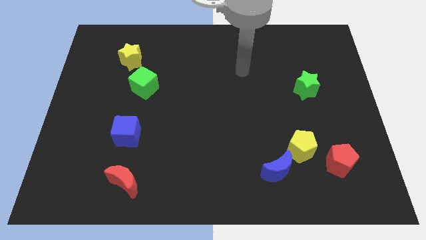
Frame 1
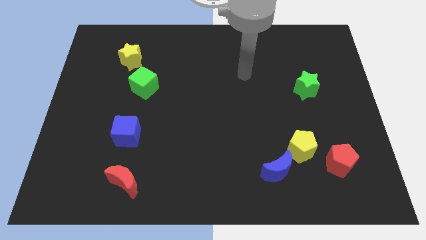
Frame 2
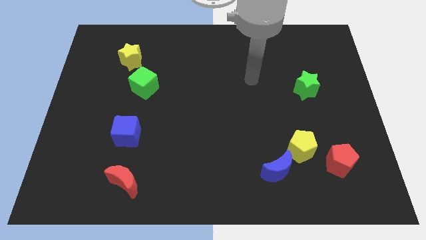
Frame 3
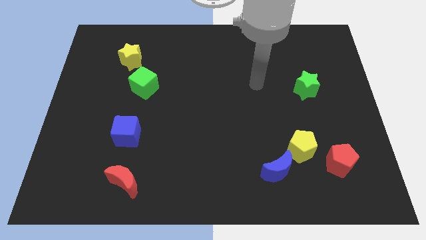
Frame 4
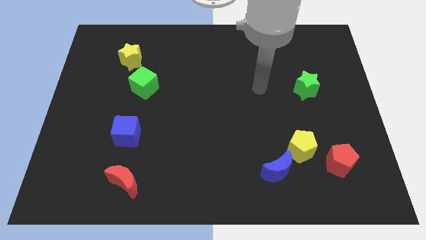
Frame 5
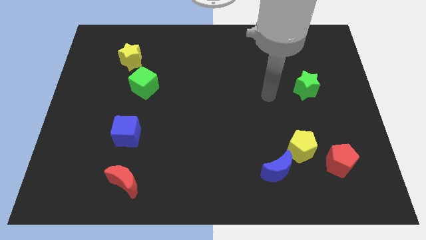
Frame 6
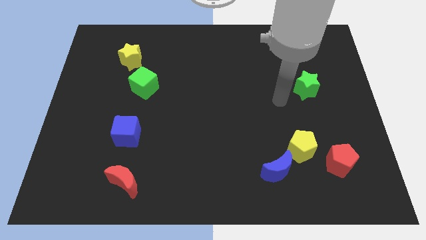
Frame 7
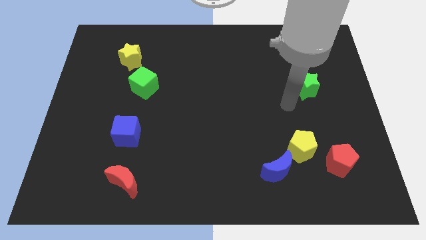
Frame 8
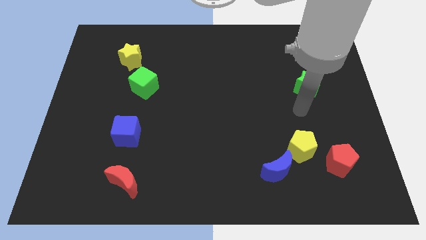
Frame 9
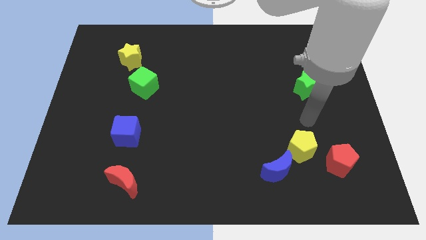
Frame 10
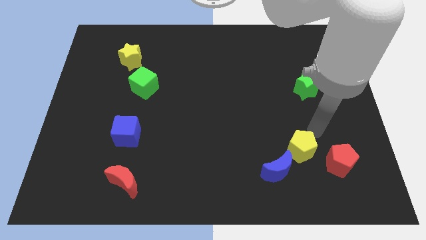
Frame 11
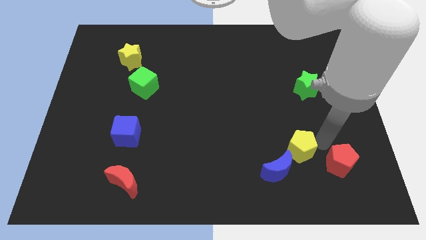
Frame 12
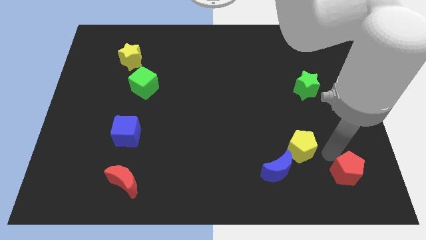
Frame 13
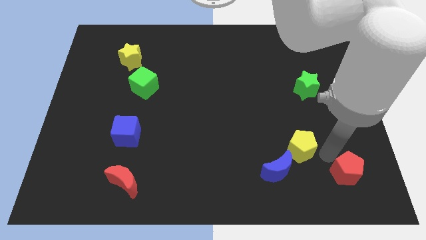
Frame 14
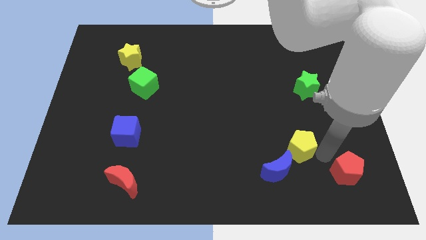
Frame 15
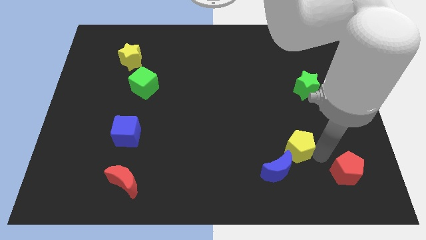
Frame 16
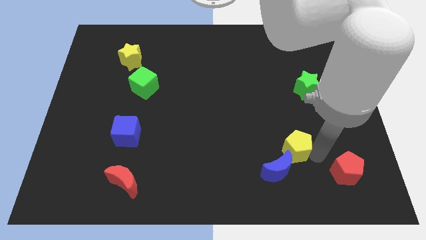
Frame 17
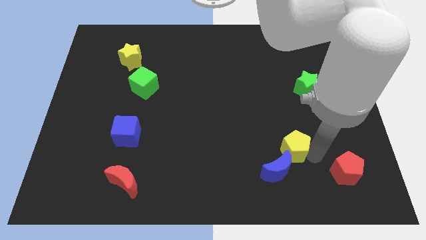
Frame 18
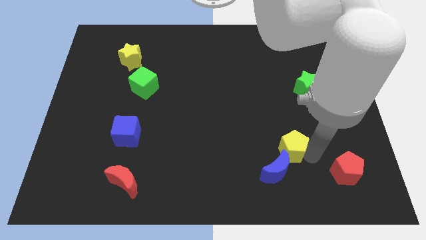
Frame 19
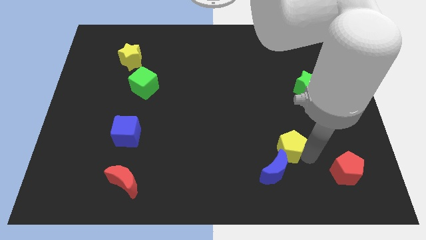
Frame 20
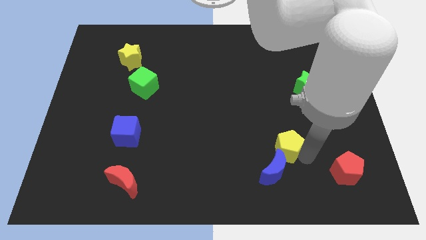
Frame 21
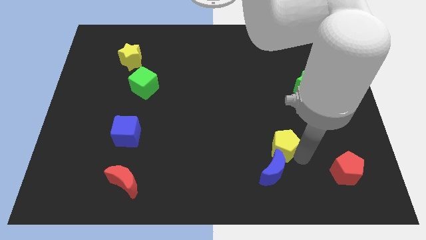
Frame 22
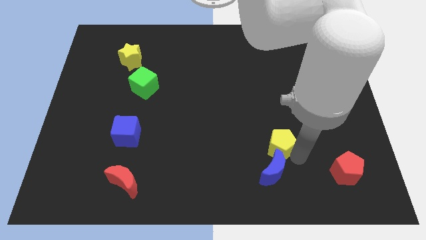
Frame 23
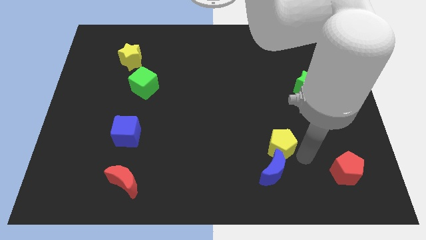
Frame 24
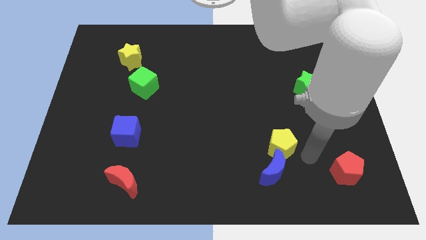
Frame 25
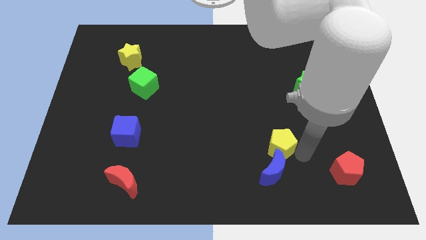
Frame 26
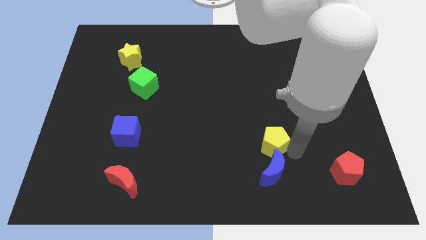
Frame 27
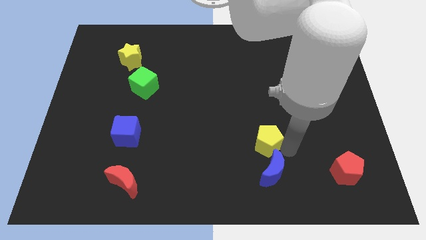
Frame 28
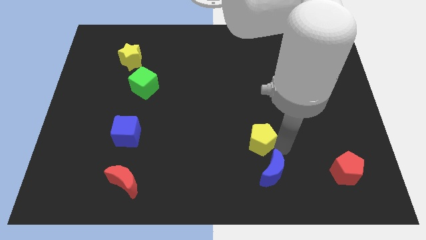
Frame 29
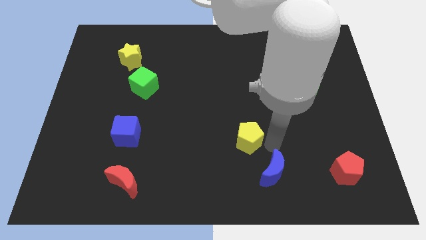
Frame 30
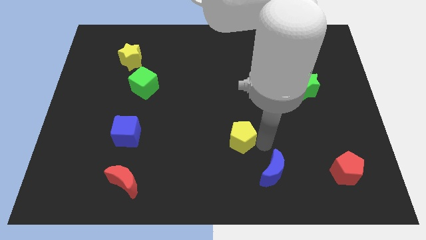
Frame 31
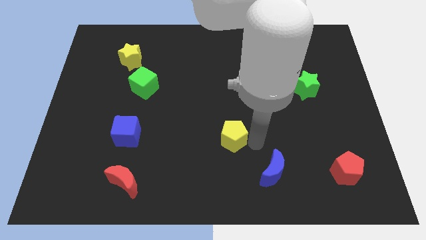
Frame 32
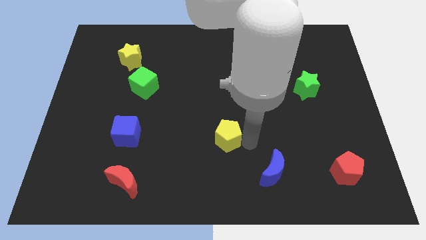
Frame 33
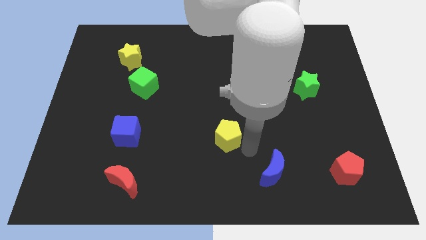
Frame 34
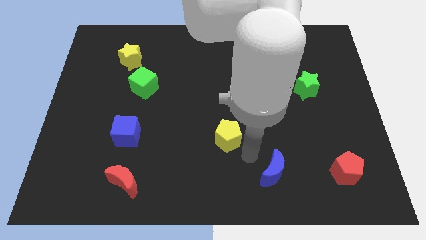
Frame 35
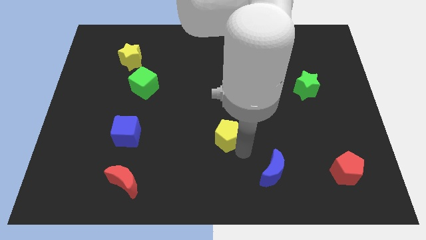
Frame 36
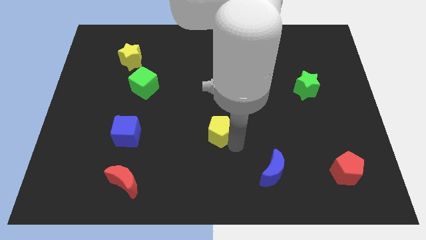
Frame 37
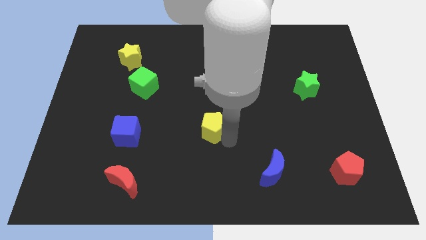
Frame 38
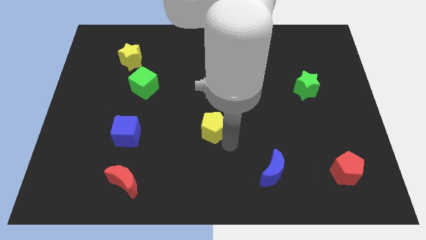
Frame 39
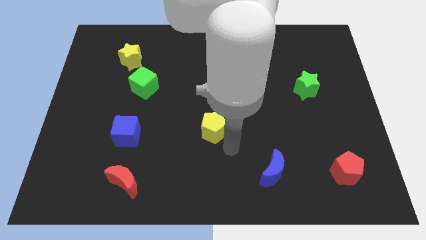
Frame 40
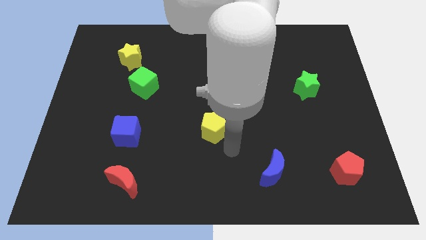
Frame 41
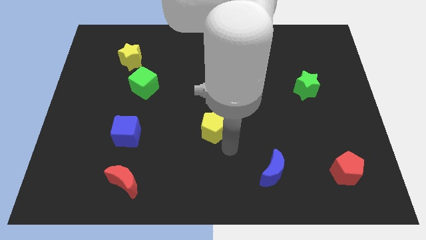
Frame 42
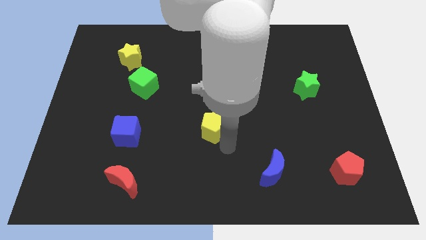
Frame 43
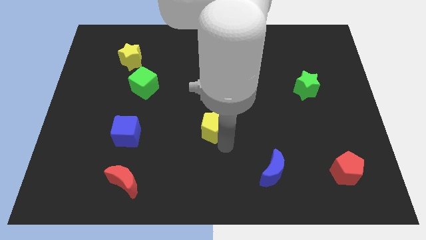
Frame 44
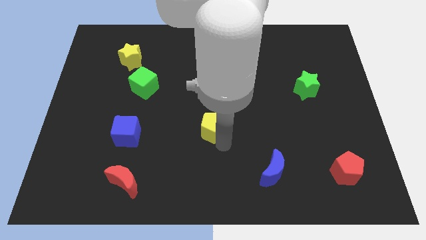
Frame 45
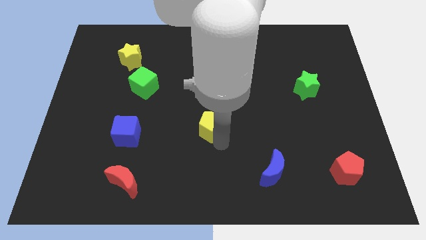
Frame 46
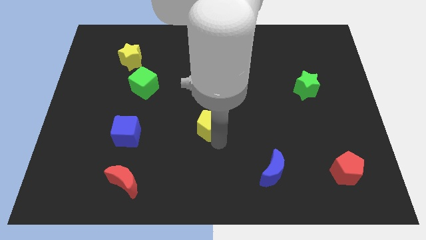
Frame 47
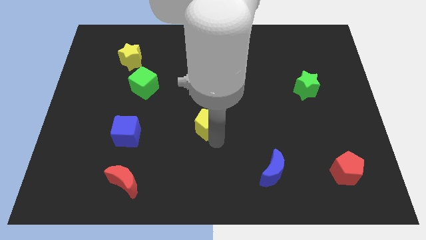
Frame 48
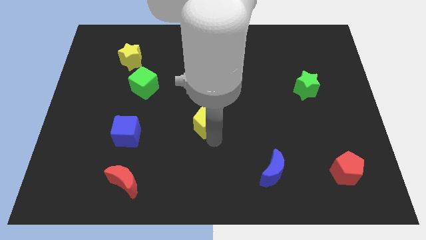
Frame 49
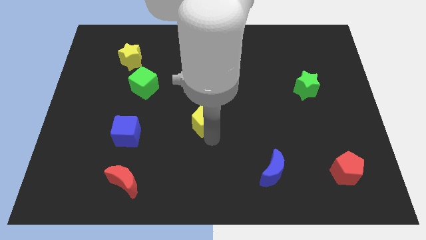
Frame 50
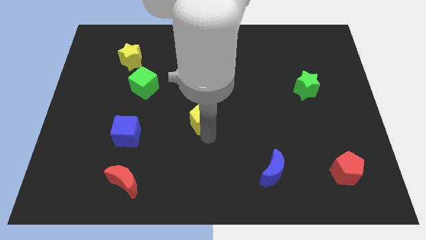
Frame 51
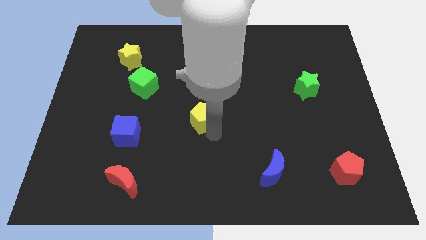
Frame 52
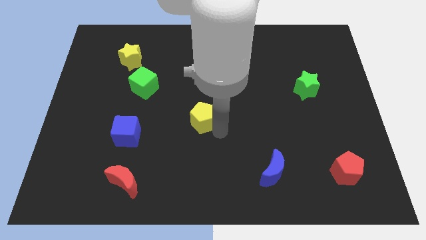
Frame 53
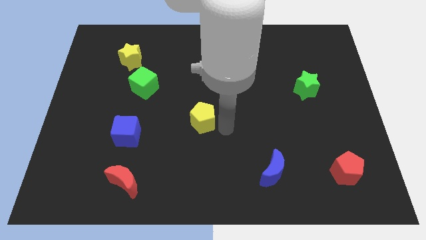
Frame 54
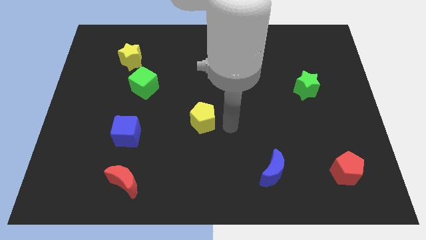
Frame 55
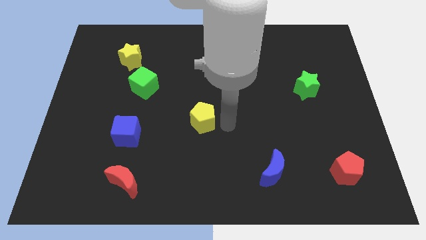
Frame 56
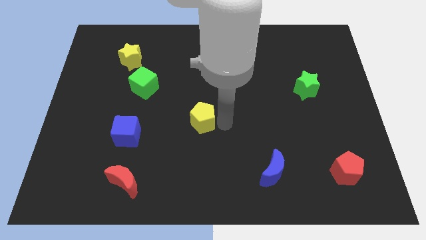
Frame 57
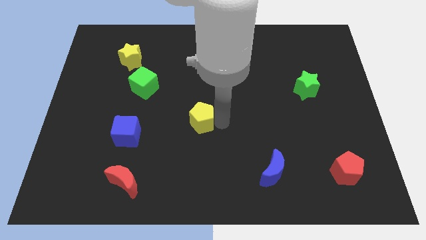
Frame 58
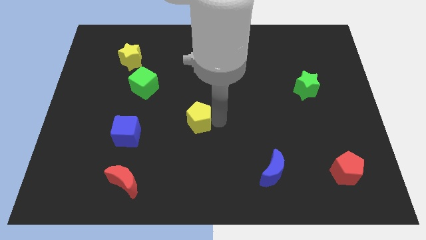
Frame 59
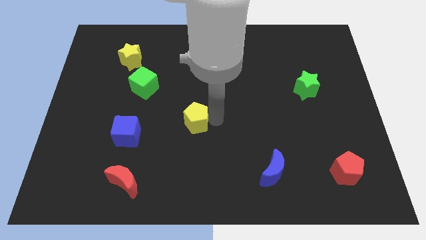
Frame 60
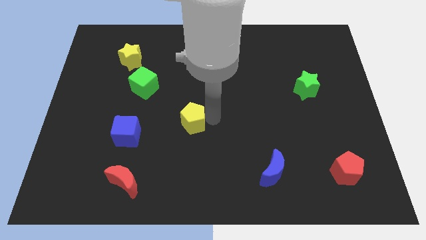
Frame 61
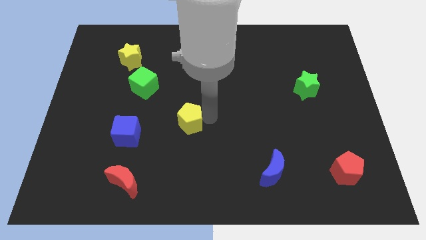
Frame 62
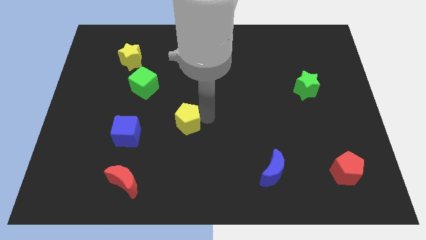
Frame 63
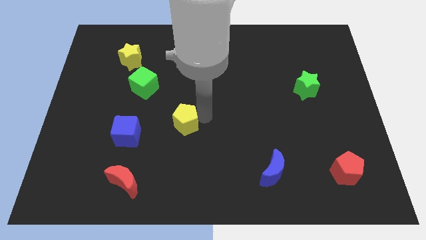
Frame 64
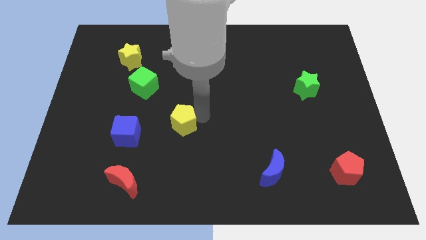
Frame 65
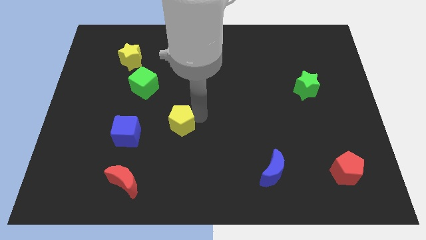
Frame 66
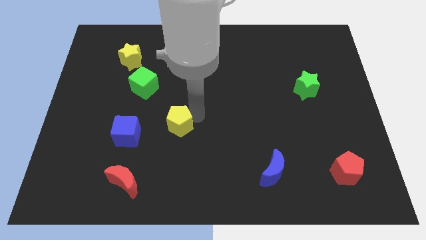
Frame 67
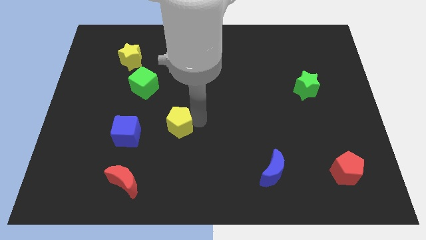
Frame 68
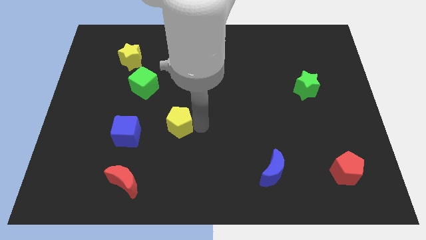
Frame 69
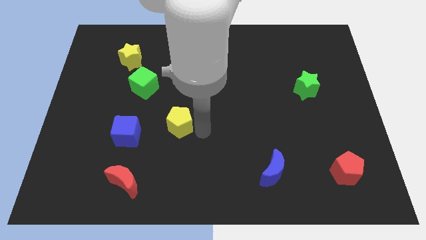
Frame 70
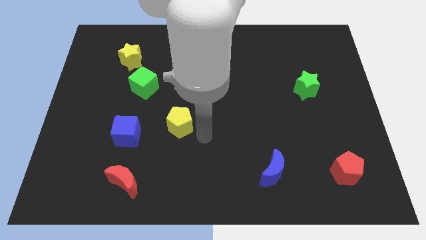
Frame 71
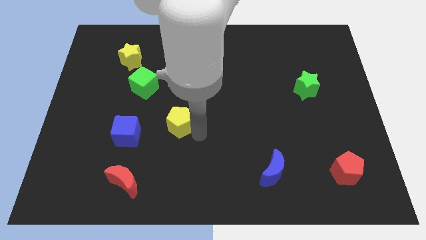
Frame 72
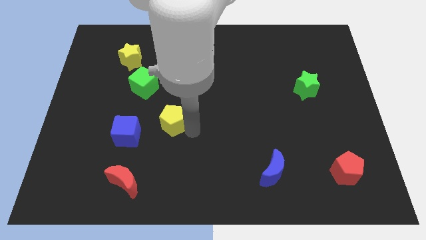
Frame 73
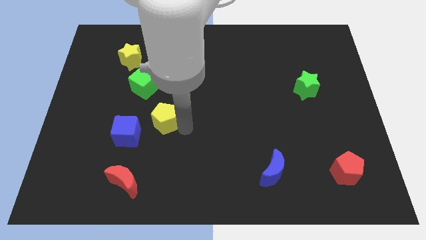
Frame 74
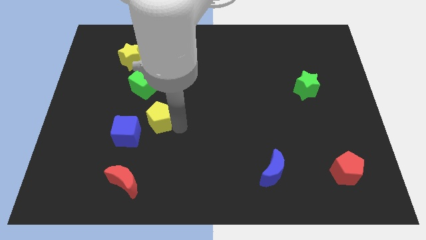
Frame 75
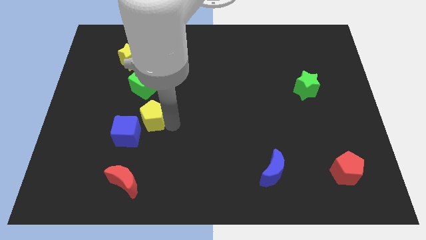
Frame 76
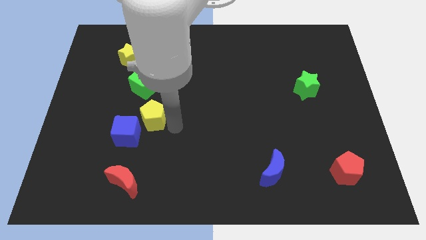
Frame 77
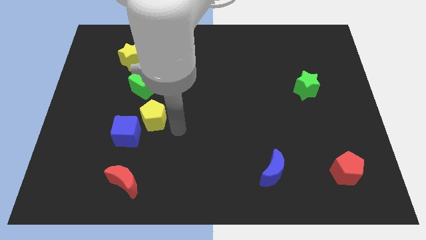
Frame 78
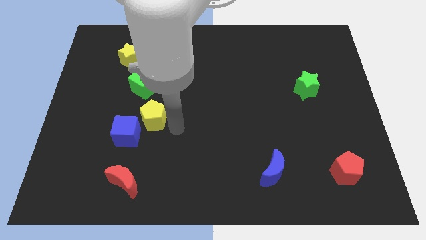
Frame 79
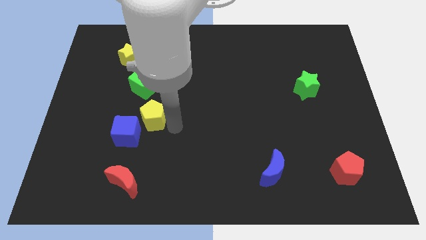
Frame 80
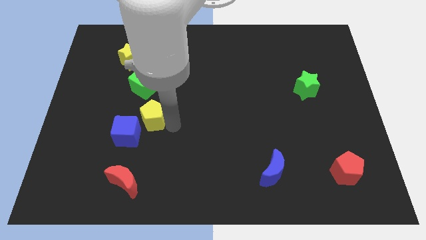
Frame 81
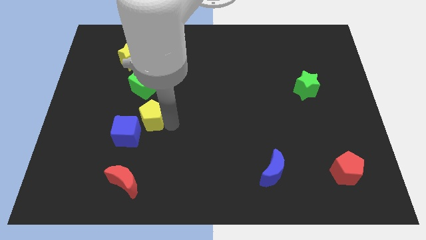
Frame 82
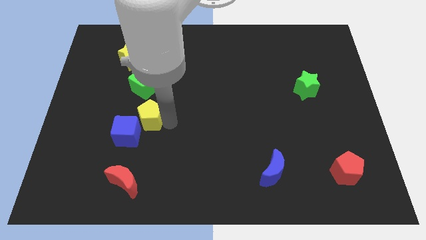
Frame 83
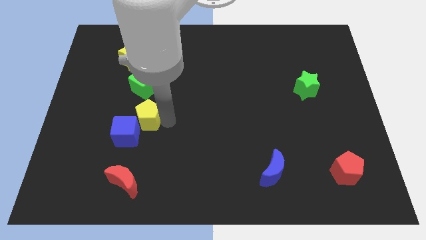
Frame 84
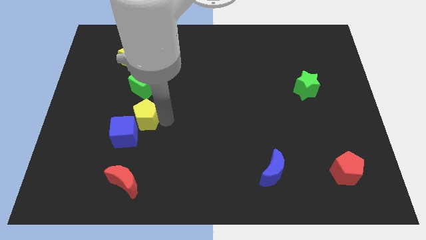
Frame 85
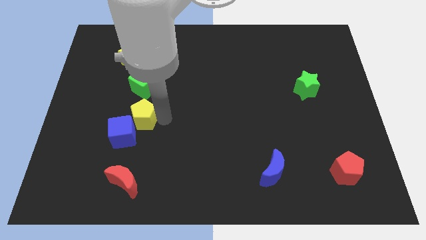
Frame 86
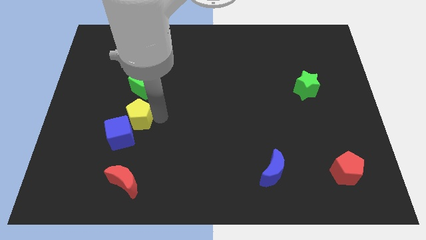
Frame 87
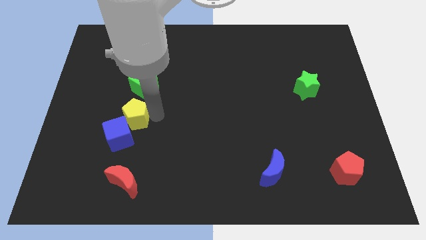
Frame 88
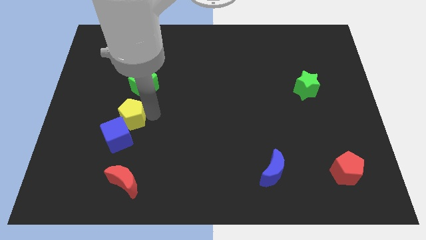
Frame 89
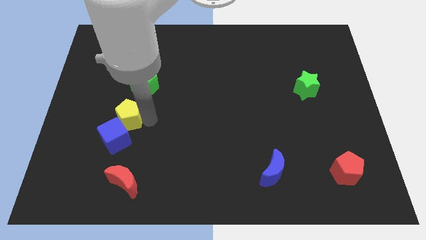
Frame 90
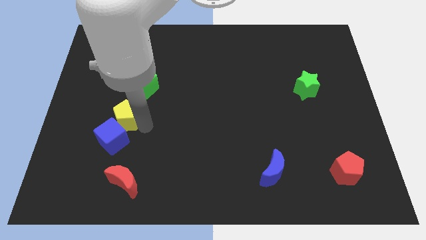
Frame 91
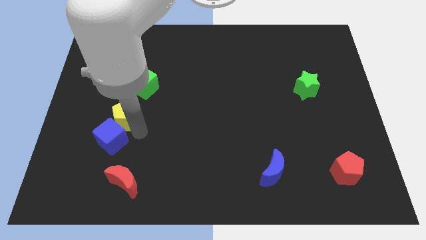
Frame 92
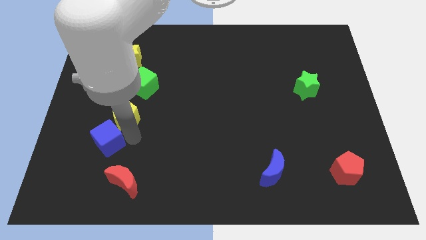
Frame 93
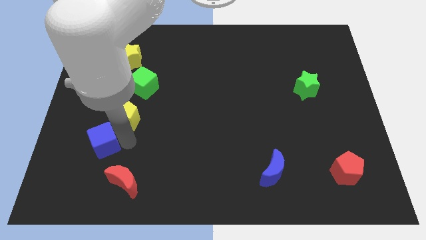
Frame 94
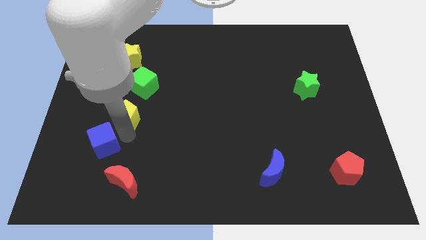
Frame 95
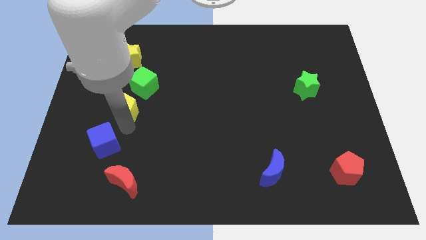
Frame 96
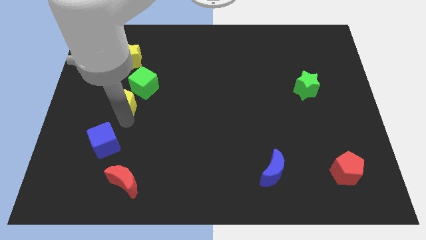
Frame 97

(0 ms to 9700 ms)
push the yellow pentagon to the bottom side of the yellow star
